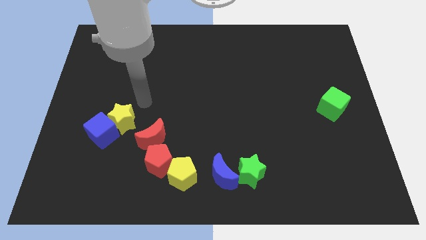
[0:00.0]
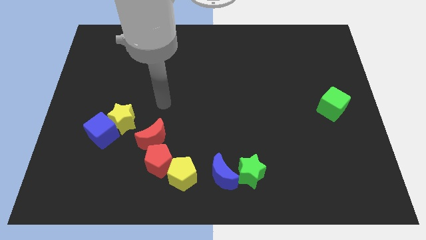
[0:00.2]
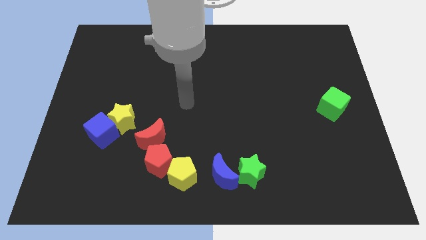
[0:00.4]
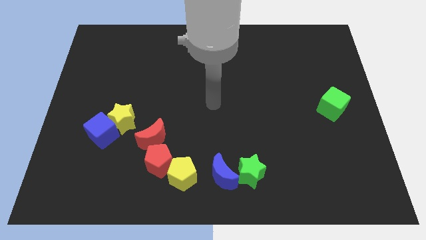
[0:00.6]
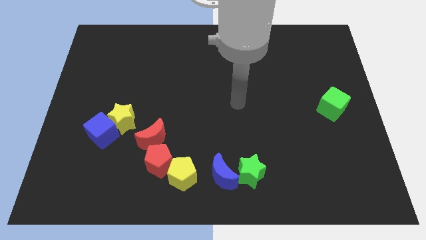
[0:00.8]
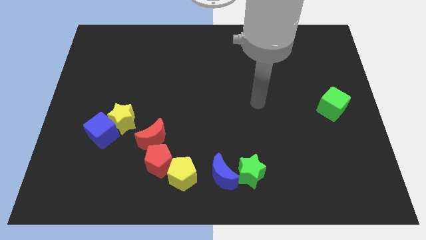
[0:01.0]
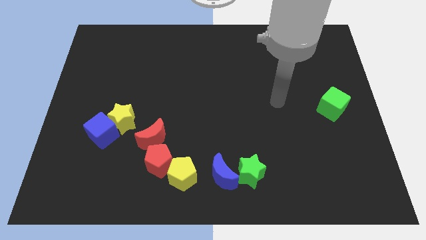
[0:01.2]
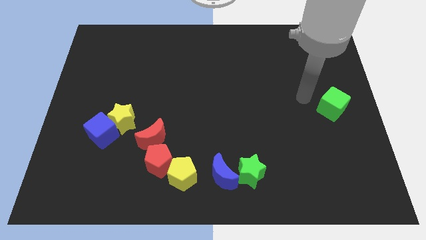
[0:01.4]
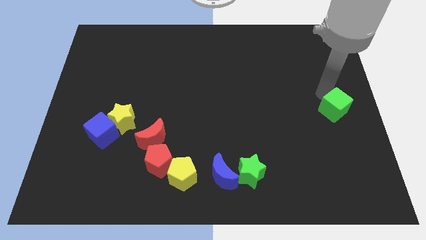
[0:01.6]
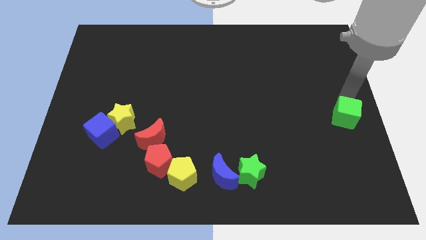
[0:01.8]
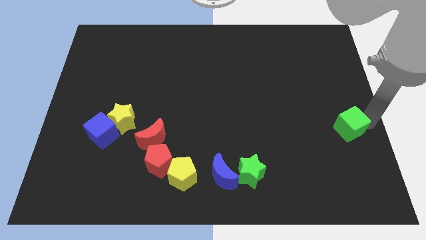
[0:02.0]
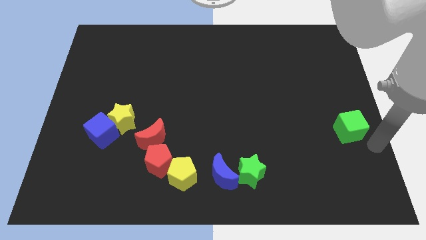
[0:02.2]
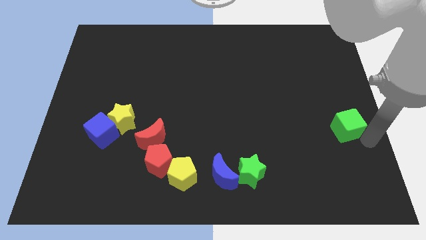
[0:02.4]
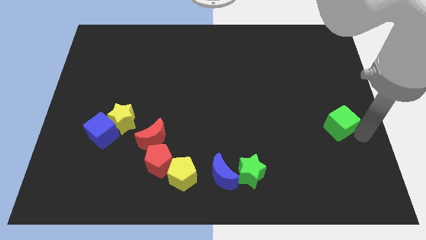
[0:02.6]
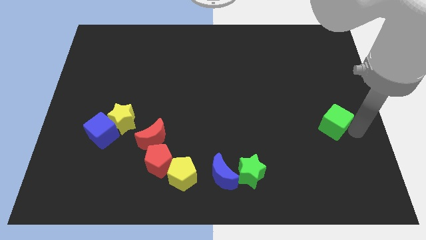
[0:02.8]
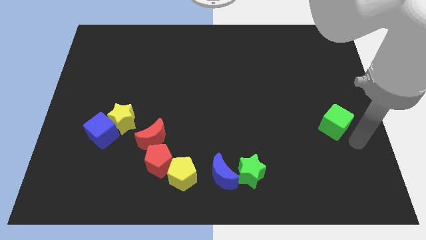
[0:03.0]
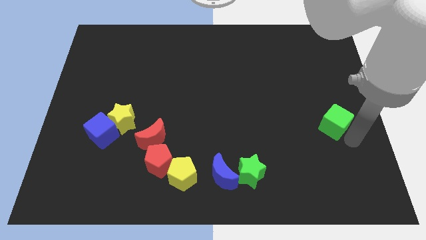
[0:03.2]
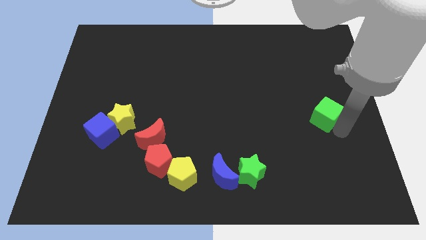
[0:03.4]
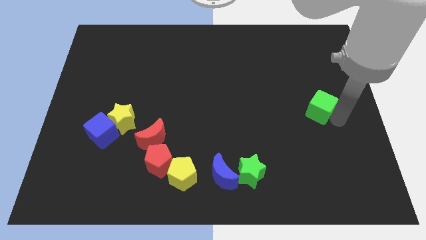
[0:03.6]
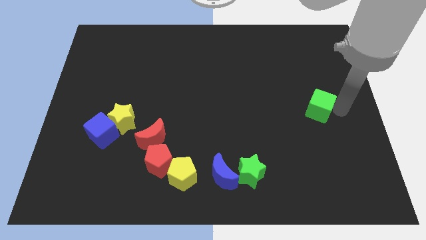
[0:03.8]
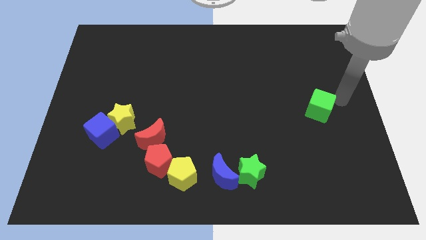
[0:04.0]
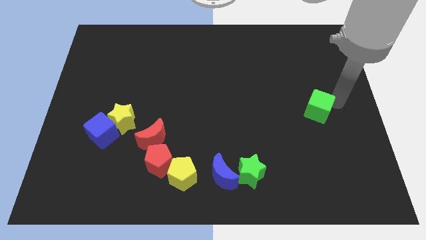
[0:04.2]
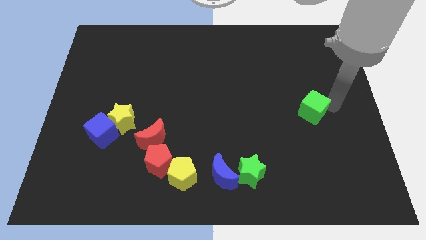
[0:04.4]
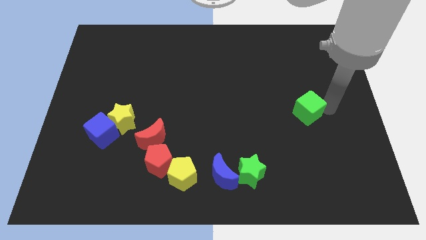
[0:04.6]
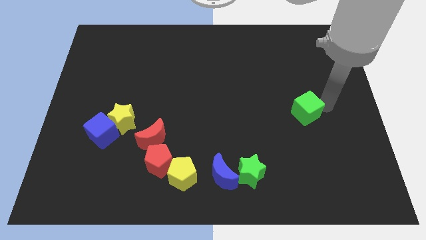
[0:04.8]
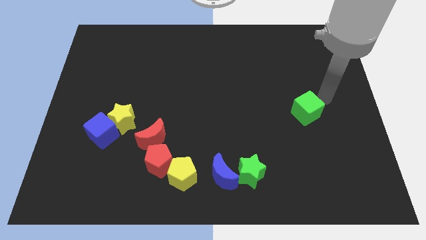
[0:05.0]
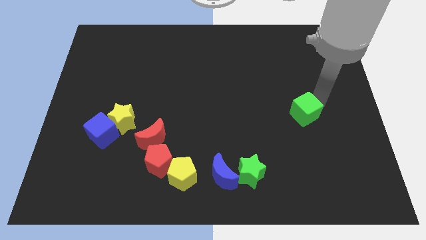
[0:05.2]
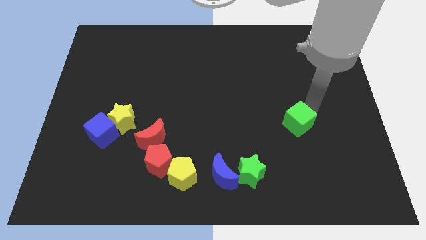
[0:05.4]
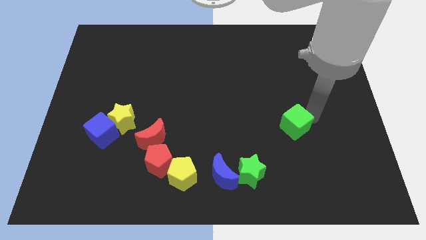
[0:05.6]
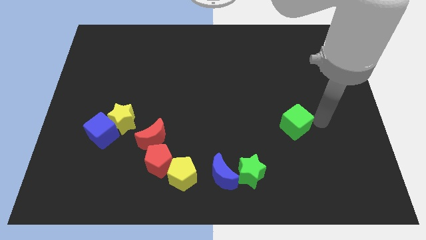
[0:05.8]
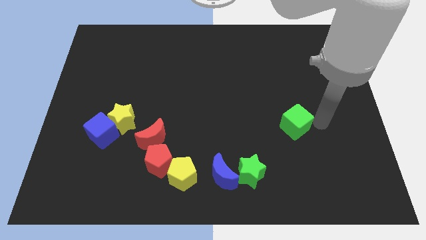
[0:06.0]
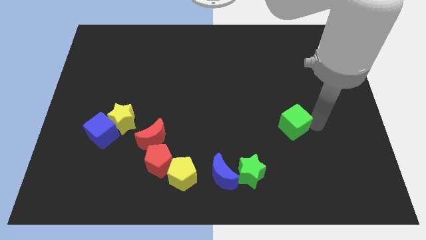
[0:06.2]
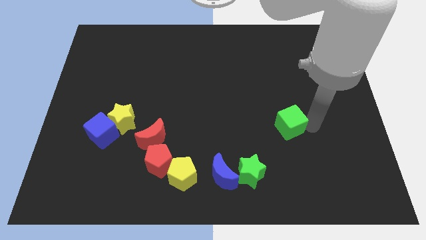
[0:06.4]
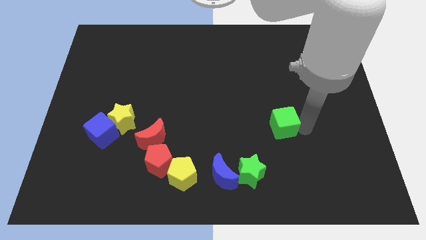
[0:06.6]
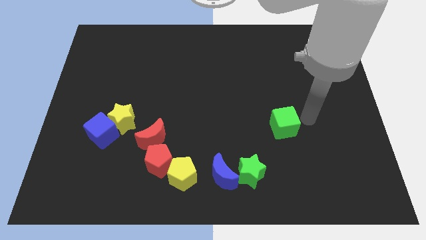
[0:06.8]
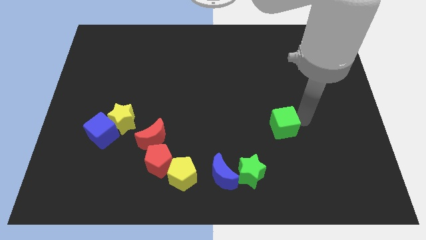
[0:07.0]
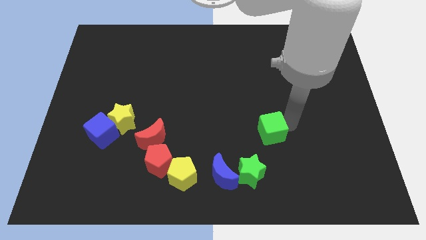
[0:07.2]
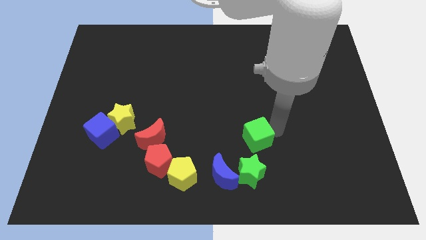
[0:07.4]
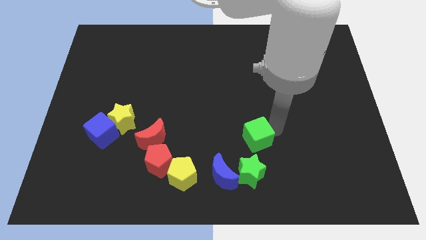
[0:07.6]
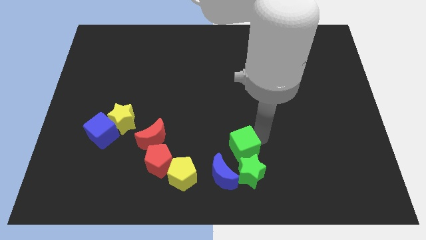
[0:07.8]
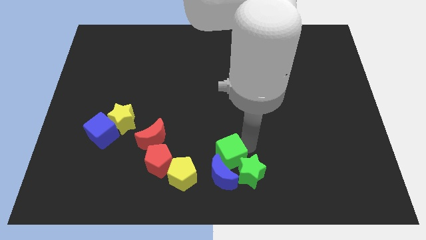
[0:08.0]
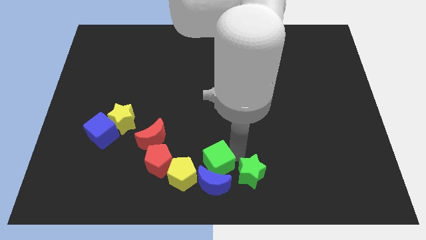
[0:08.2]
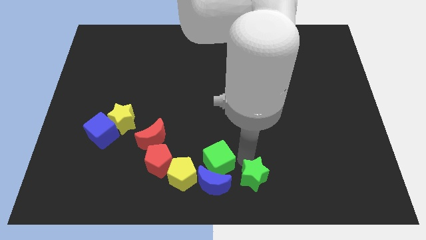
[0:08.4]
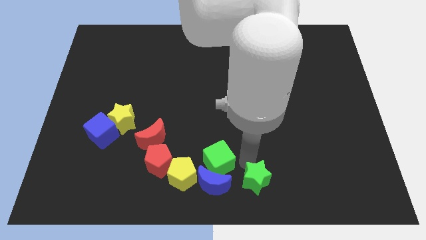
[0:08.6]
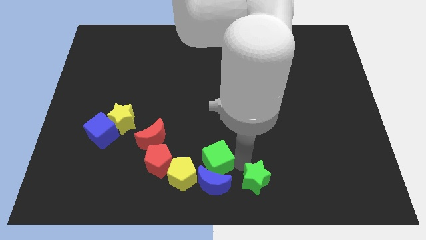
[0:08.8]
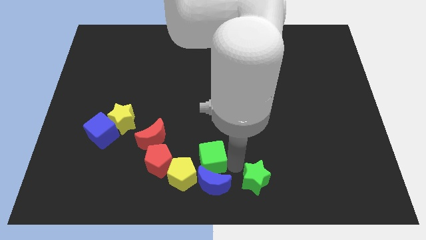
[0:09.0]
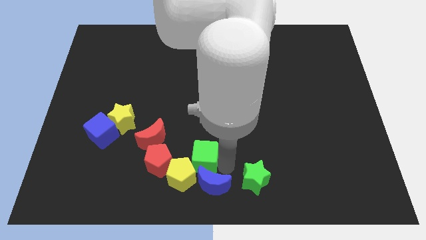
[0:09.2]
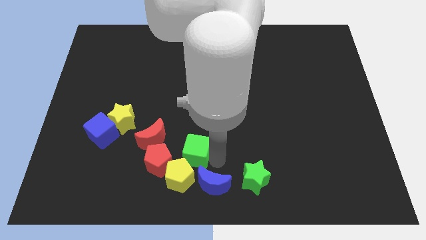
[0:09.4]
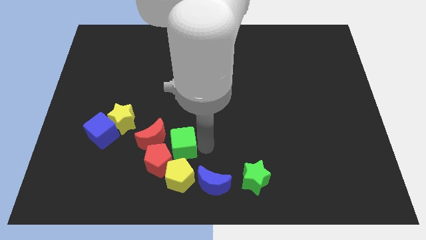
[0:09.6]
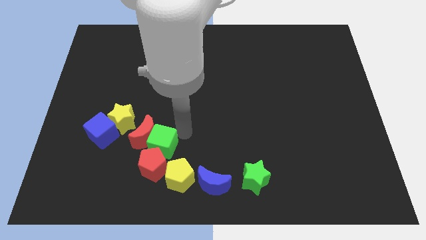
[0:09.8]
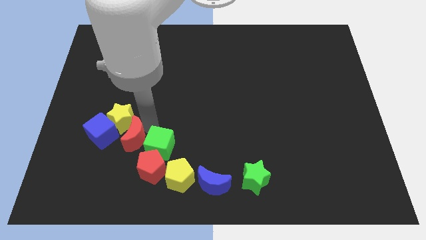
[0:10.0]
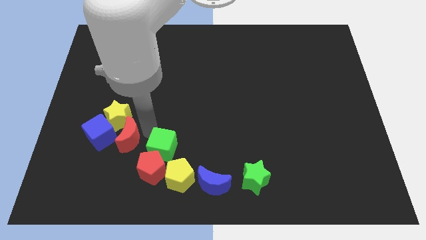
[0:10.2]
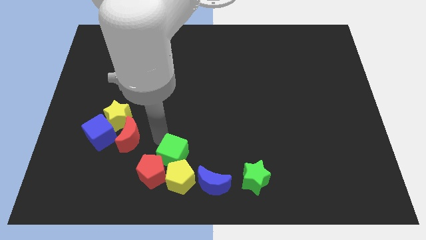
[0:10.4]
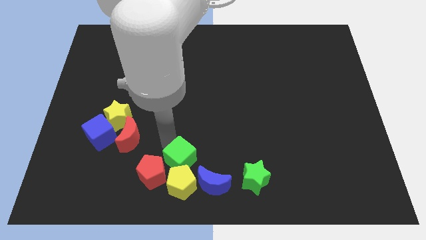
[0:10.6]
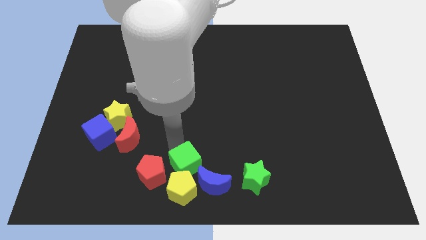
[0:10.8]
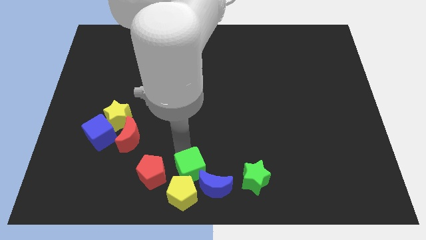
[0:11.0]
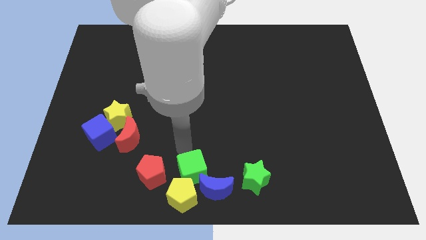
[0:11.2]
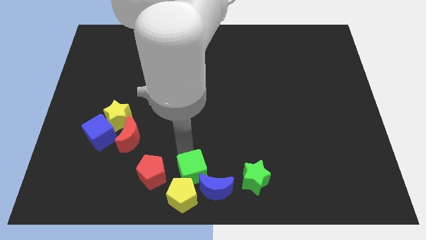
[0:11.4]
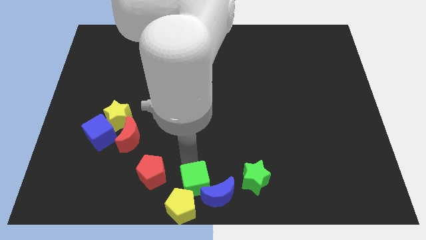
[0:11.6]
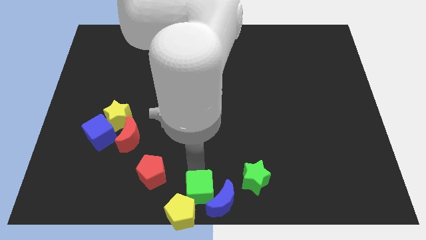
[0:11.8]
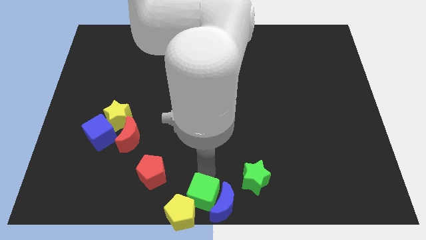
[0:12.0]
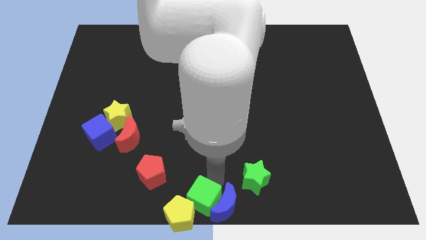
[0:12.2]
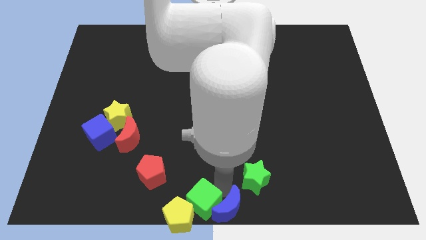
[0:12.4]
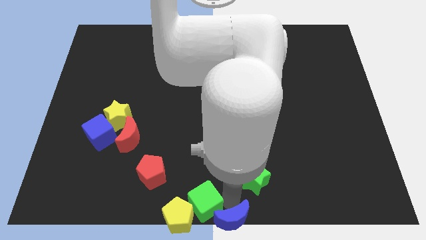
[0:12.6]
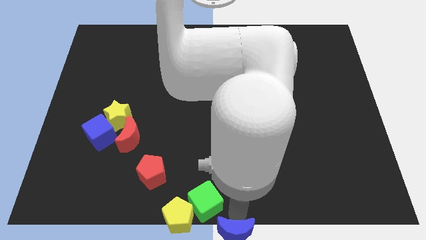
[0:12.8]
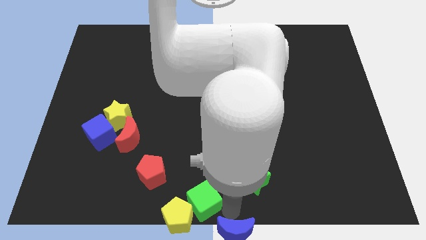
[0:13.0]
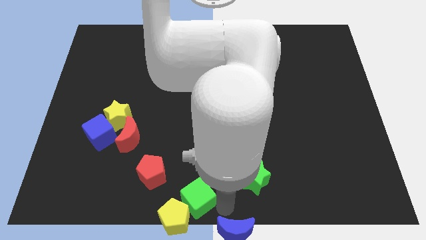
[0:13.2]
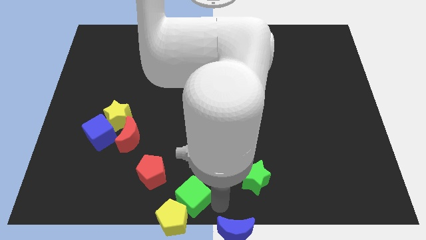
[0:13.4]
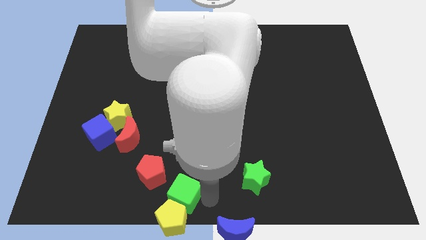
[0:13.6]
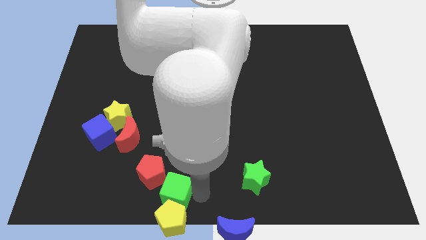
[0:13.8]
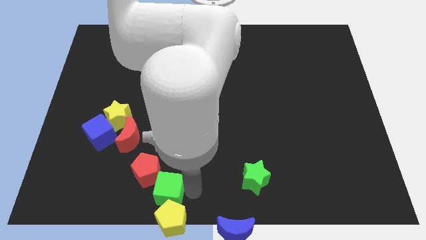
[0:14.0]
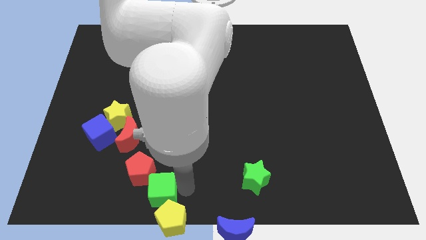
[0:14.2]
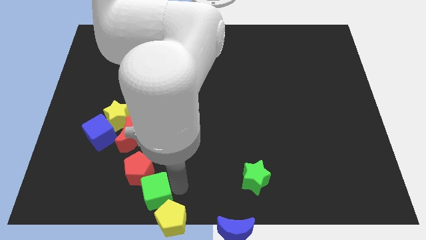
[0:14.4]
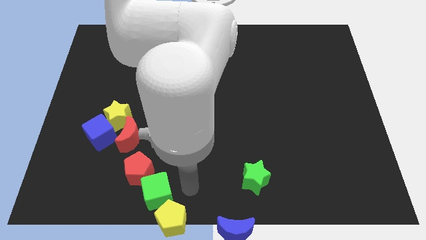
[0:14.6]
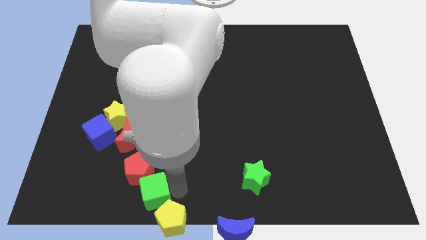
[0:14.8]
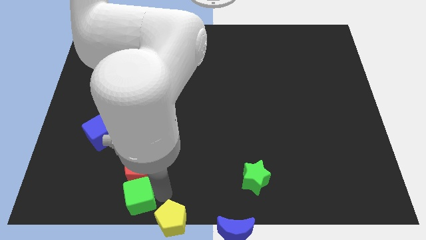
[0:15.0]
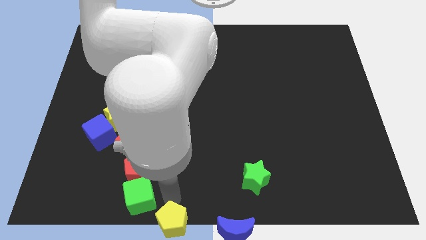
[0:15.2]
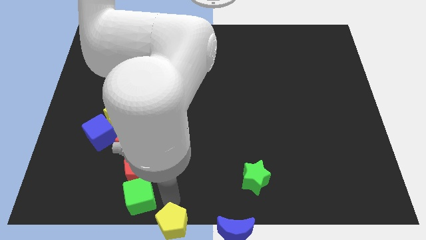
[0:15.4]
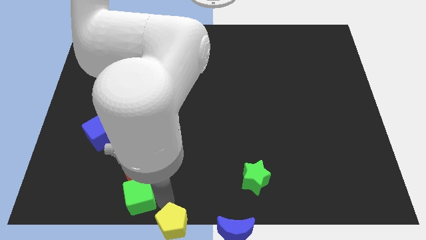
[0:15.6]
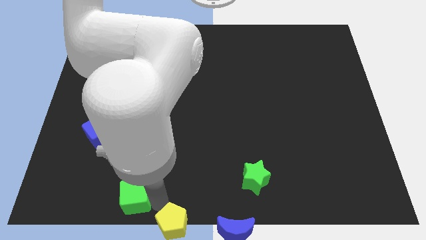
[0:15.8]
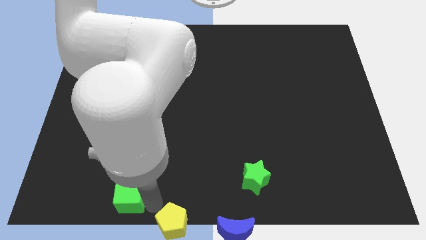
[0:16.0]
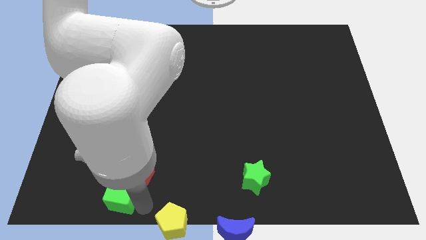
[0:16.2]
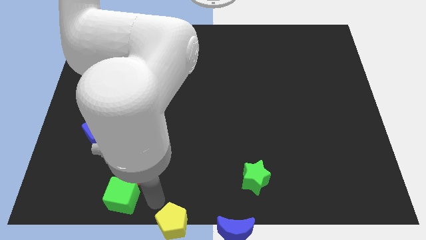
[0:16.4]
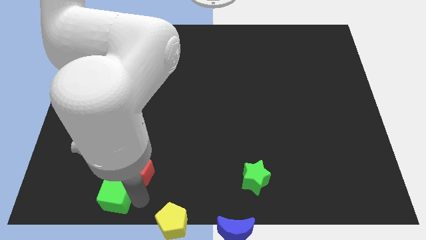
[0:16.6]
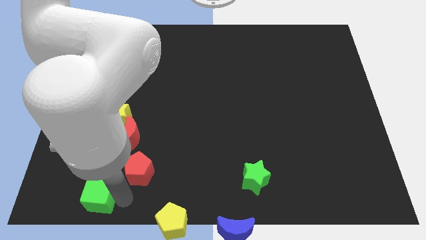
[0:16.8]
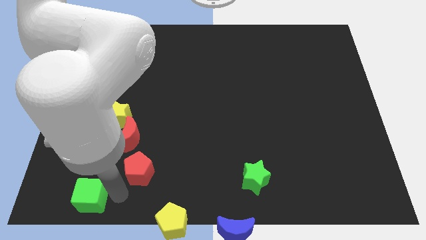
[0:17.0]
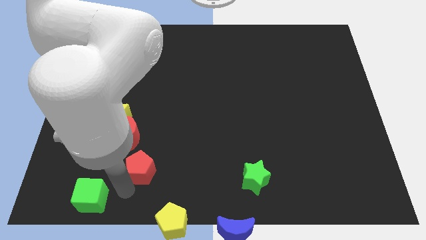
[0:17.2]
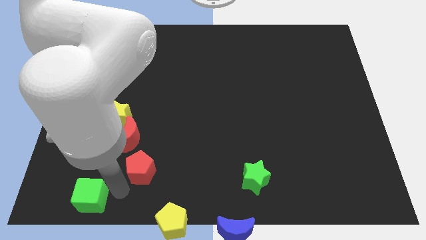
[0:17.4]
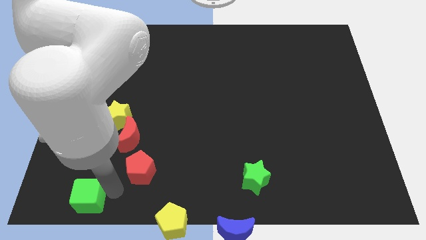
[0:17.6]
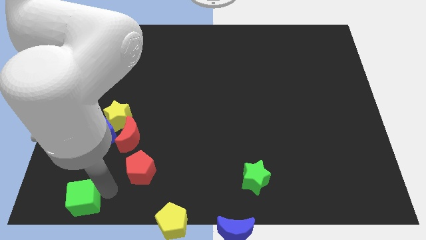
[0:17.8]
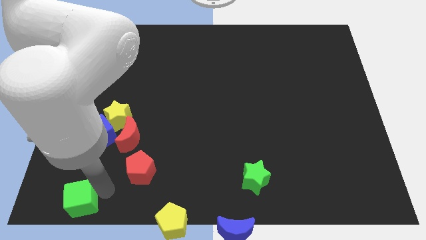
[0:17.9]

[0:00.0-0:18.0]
move the green cube to the bottom left corner
